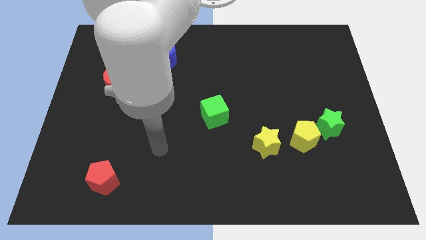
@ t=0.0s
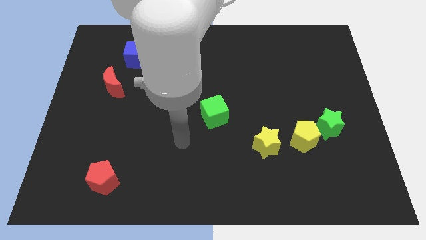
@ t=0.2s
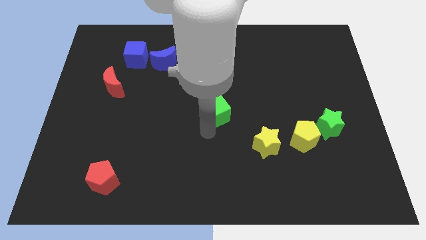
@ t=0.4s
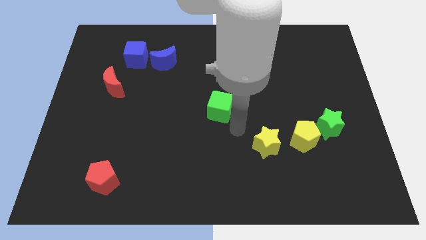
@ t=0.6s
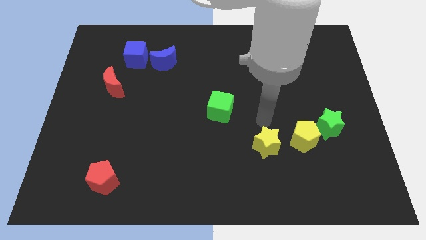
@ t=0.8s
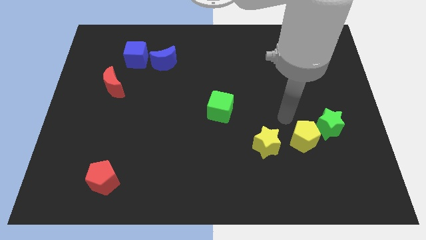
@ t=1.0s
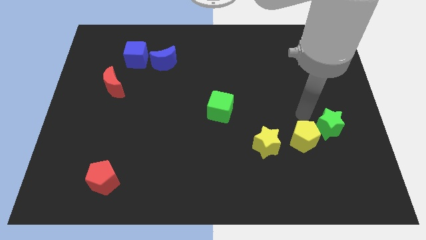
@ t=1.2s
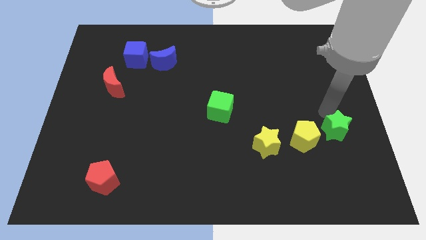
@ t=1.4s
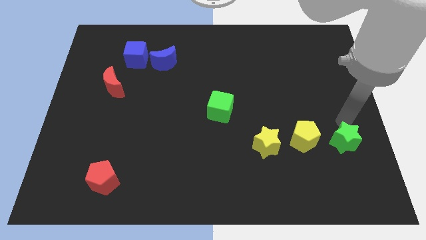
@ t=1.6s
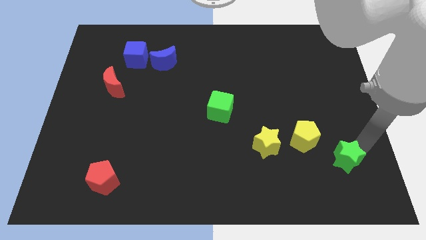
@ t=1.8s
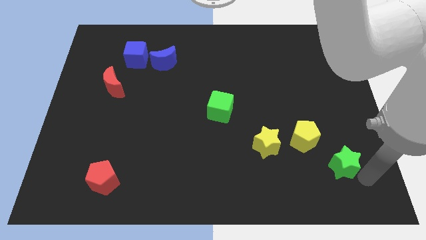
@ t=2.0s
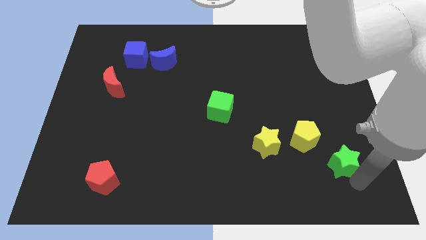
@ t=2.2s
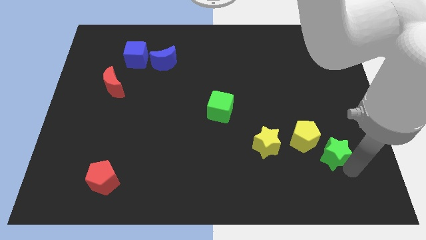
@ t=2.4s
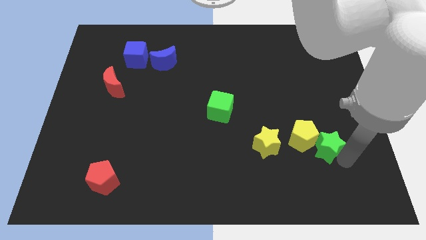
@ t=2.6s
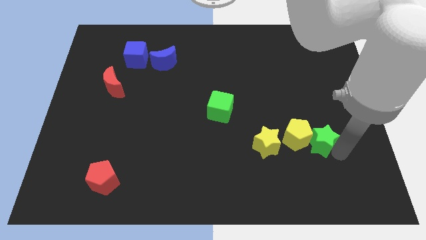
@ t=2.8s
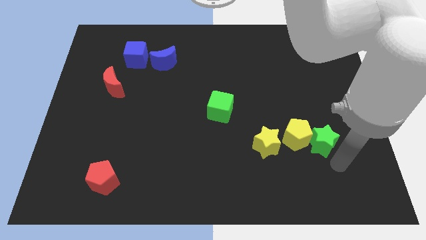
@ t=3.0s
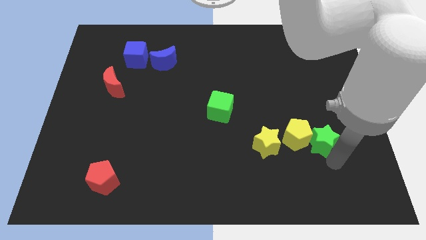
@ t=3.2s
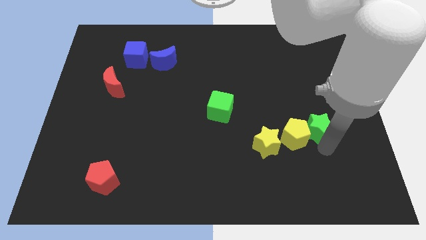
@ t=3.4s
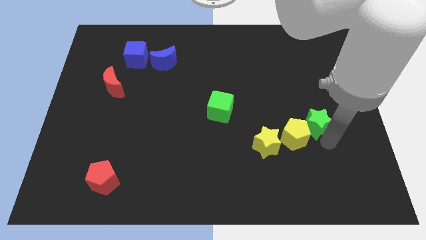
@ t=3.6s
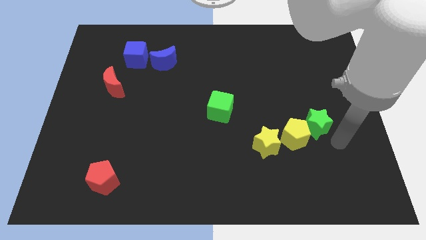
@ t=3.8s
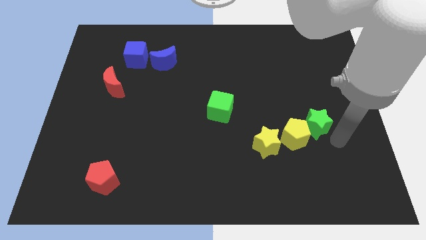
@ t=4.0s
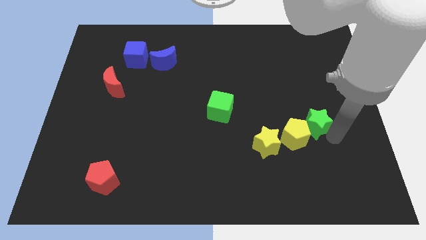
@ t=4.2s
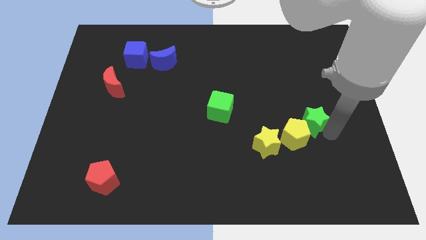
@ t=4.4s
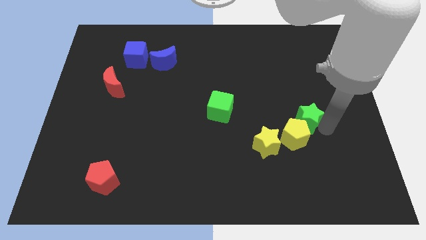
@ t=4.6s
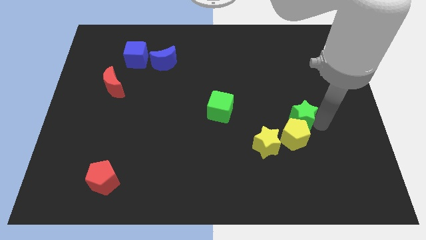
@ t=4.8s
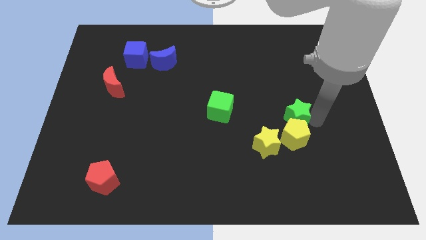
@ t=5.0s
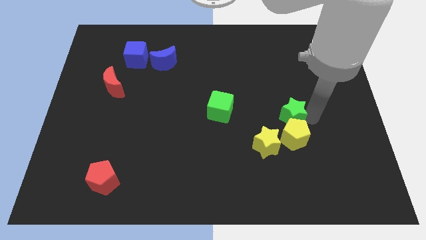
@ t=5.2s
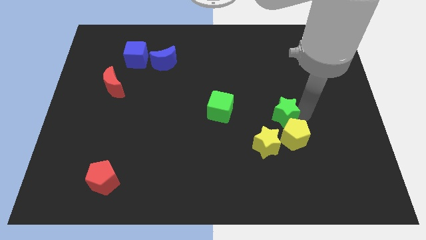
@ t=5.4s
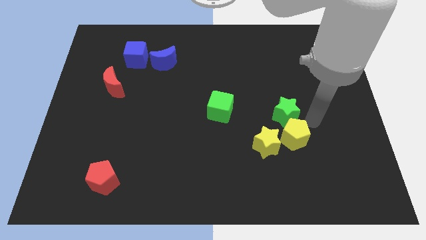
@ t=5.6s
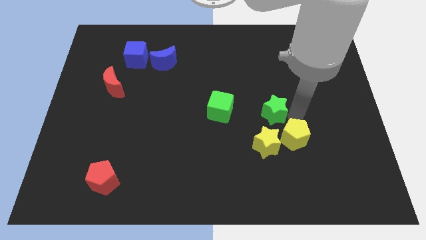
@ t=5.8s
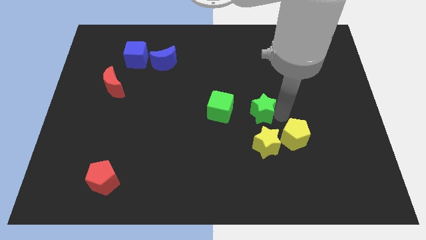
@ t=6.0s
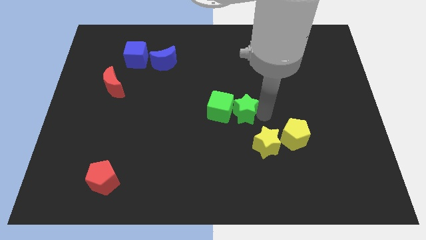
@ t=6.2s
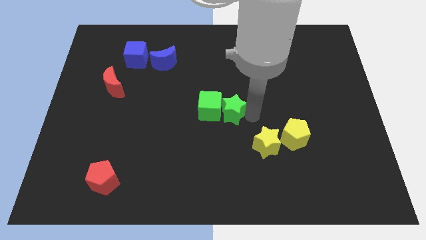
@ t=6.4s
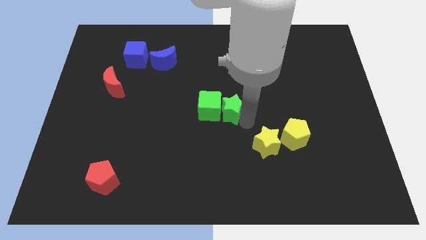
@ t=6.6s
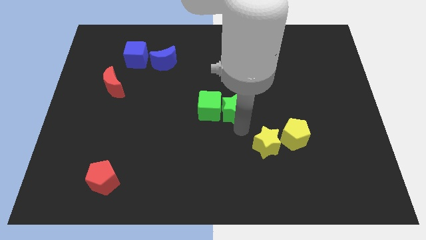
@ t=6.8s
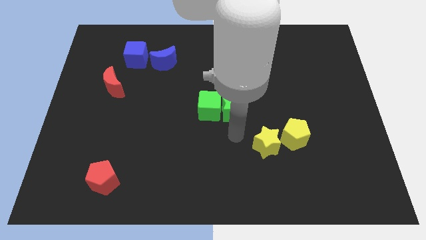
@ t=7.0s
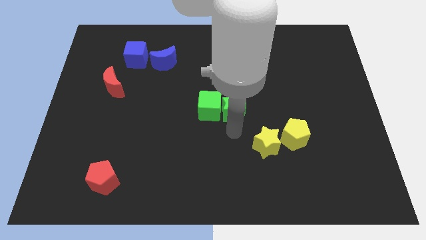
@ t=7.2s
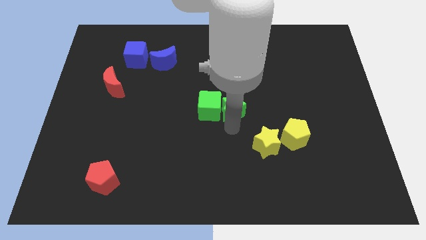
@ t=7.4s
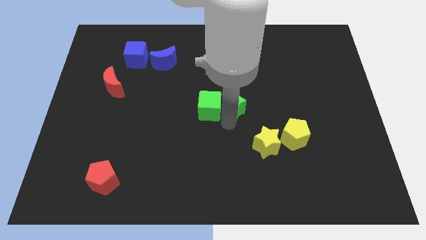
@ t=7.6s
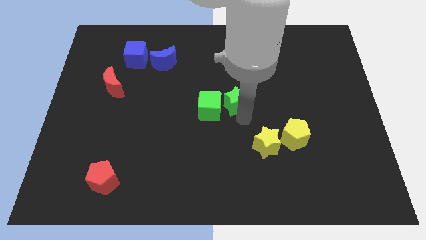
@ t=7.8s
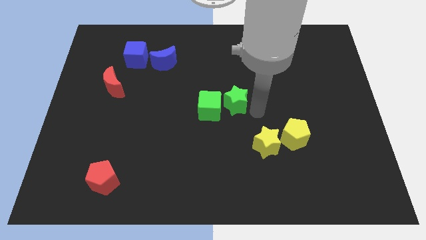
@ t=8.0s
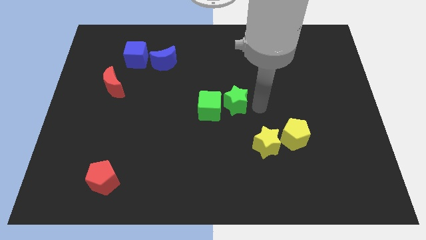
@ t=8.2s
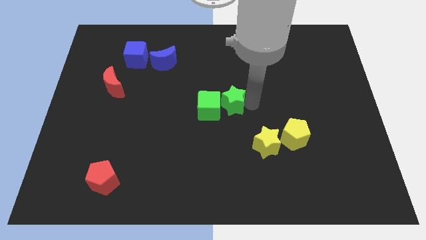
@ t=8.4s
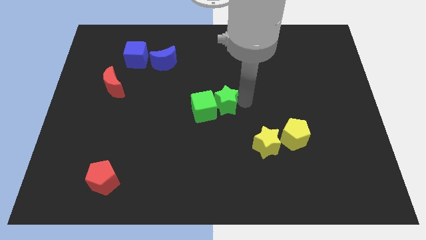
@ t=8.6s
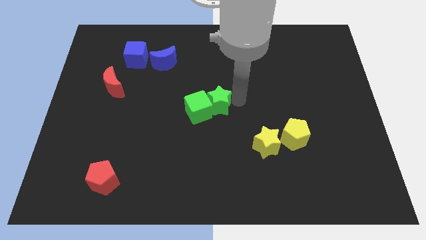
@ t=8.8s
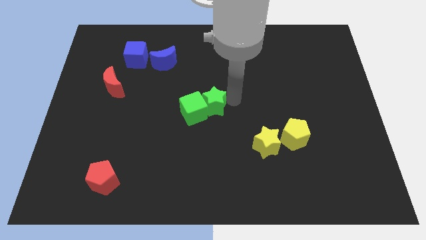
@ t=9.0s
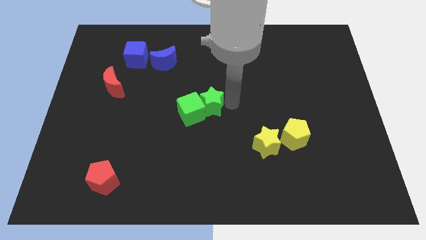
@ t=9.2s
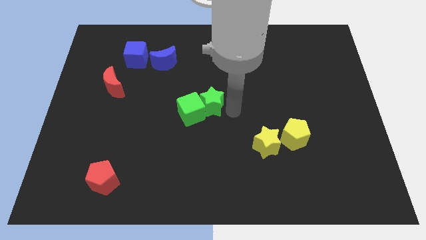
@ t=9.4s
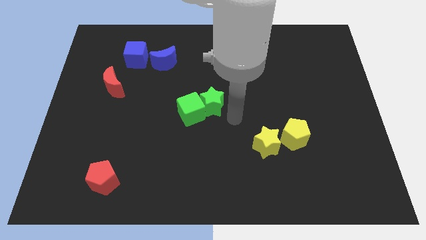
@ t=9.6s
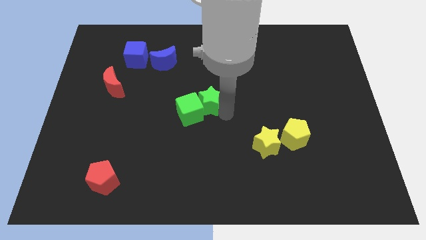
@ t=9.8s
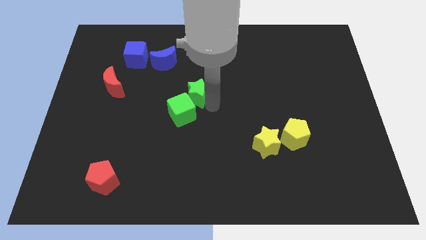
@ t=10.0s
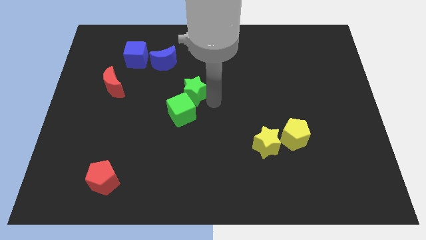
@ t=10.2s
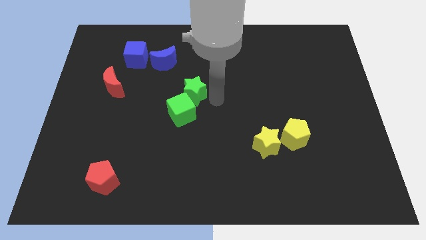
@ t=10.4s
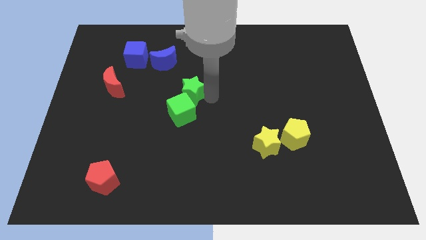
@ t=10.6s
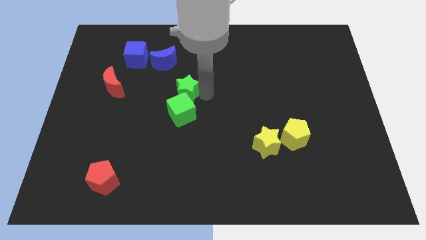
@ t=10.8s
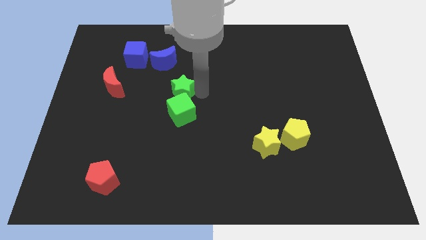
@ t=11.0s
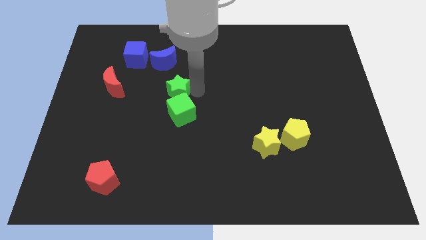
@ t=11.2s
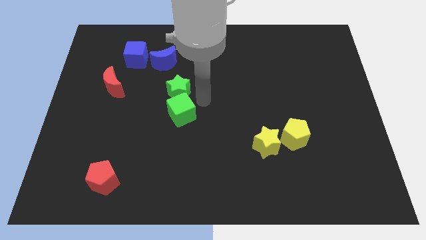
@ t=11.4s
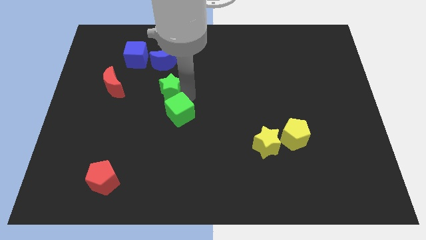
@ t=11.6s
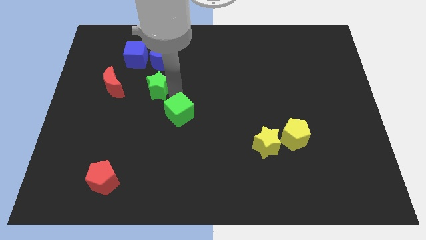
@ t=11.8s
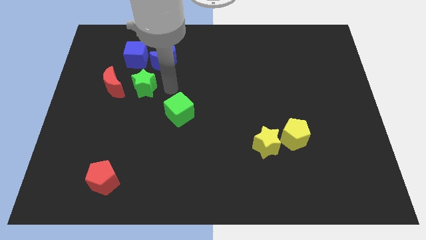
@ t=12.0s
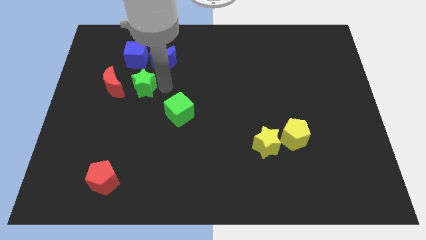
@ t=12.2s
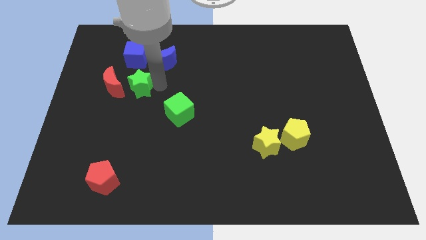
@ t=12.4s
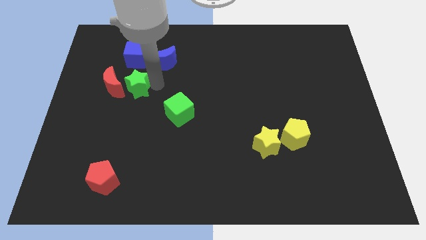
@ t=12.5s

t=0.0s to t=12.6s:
move the green star towards the red moon

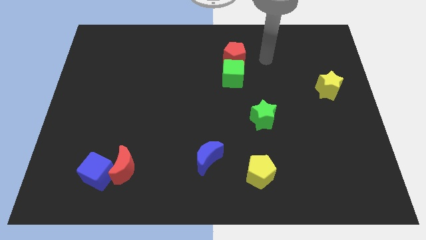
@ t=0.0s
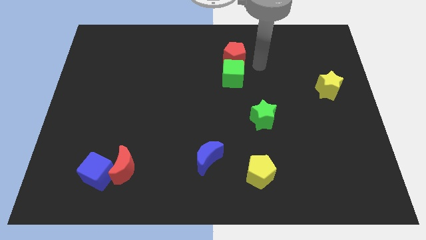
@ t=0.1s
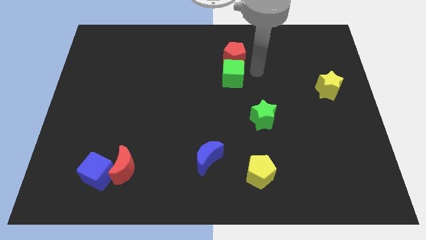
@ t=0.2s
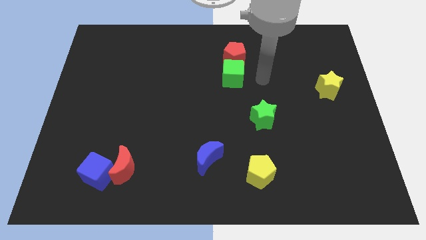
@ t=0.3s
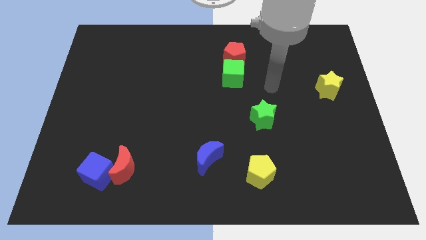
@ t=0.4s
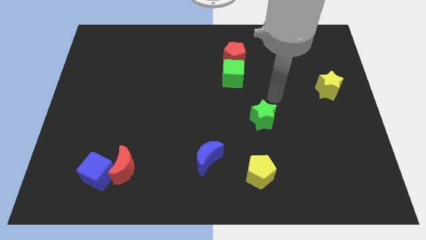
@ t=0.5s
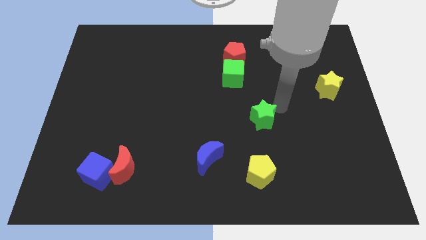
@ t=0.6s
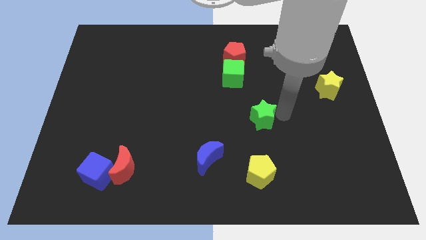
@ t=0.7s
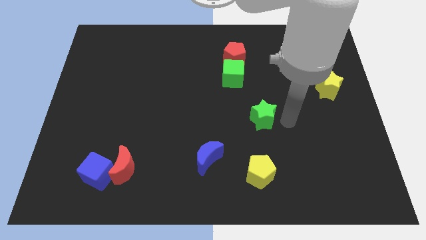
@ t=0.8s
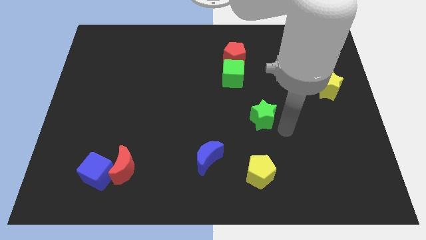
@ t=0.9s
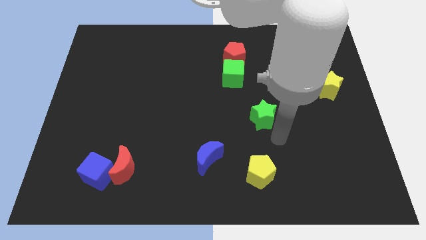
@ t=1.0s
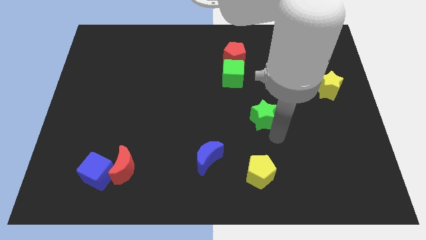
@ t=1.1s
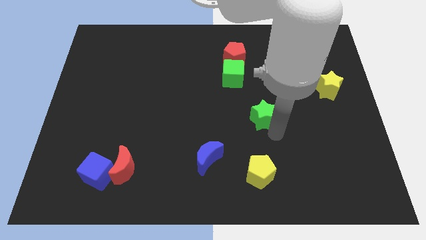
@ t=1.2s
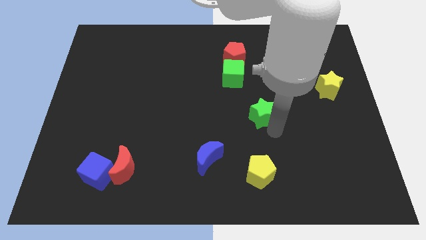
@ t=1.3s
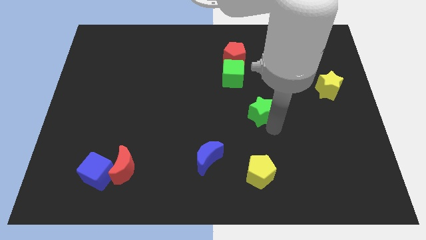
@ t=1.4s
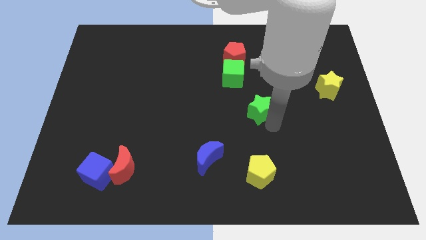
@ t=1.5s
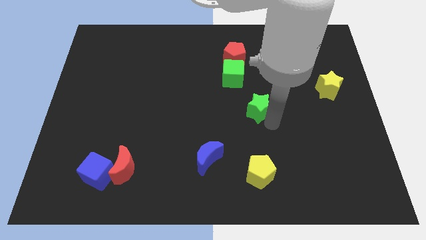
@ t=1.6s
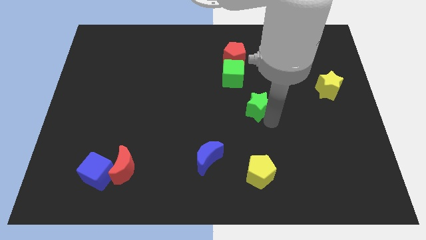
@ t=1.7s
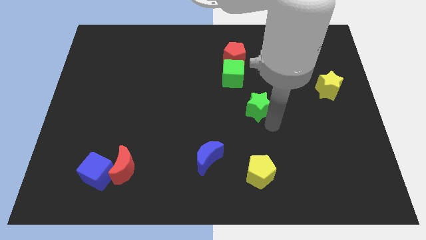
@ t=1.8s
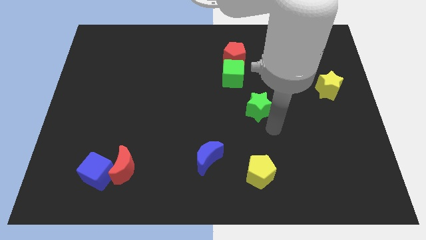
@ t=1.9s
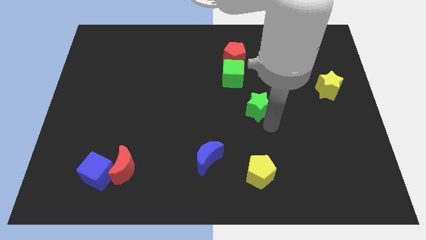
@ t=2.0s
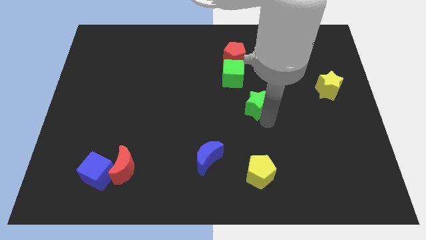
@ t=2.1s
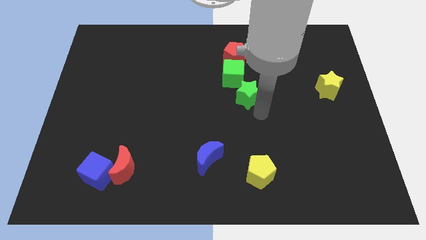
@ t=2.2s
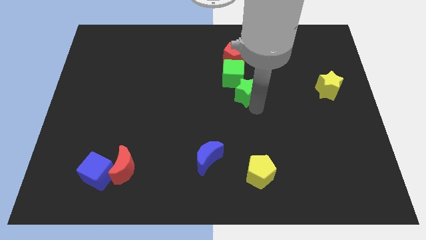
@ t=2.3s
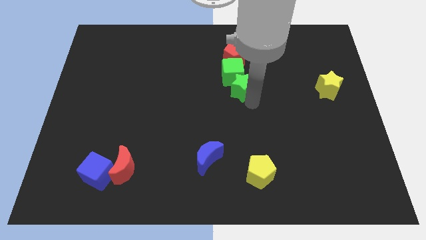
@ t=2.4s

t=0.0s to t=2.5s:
move the green star next to the green cube
